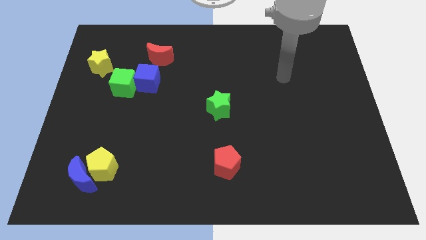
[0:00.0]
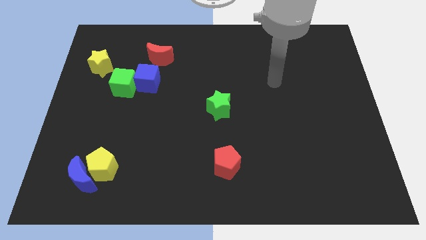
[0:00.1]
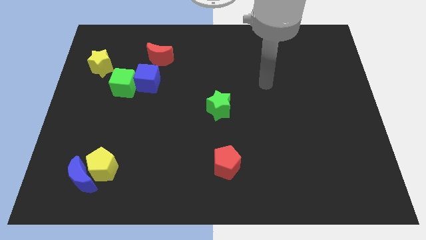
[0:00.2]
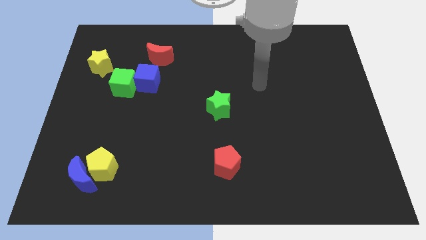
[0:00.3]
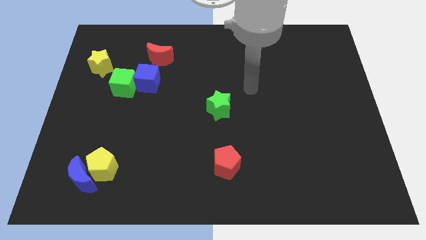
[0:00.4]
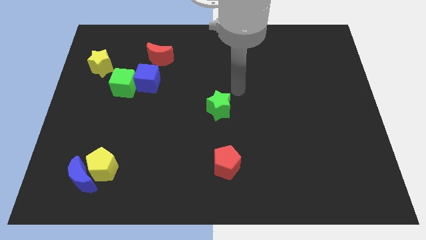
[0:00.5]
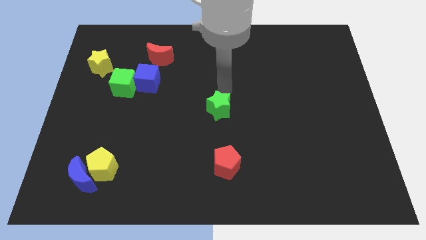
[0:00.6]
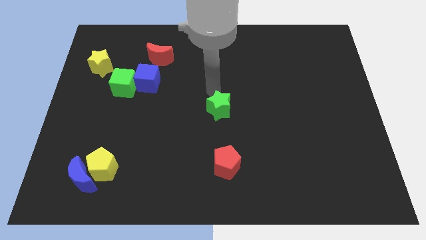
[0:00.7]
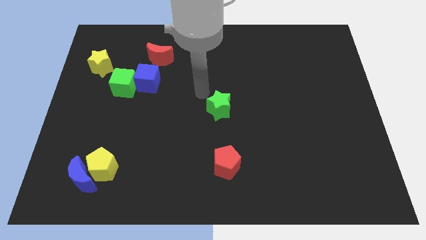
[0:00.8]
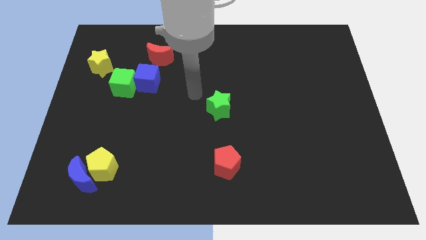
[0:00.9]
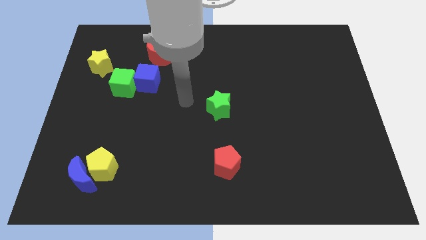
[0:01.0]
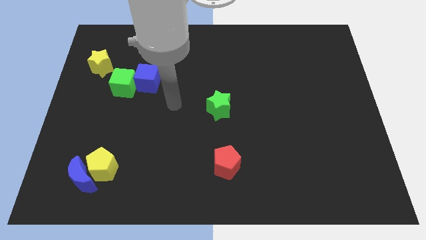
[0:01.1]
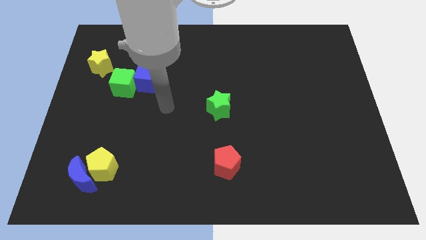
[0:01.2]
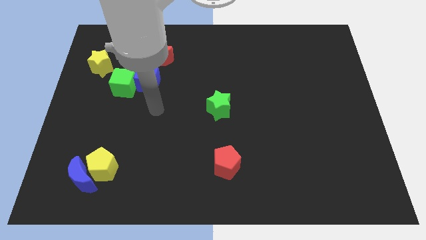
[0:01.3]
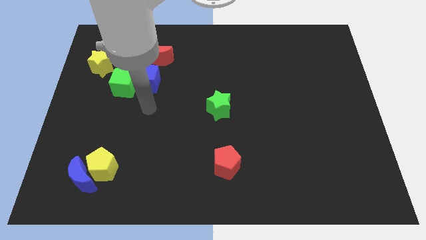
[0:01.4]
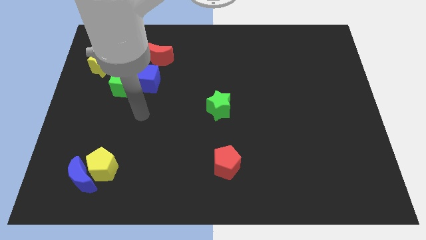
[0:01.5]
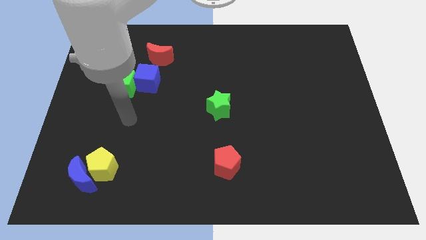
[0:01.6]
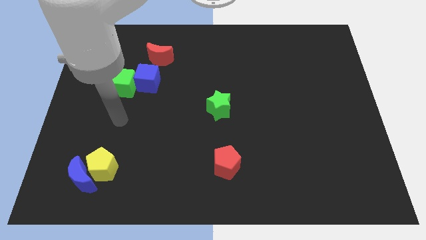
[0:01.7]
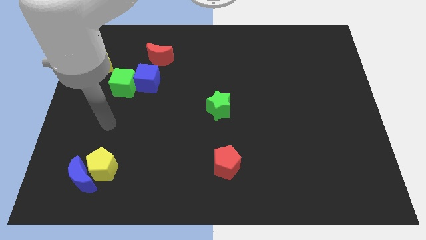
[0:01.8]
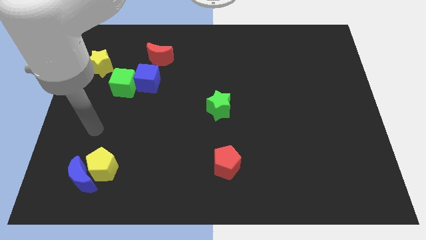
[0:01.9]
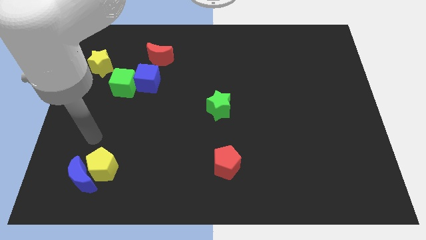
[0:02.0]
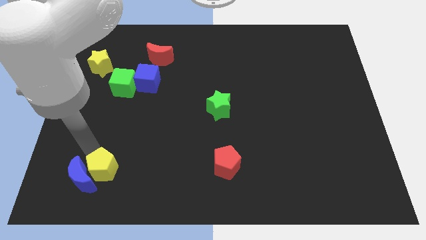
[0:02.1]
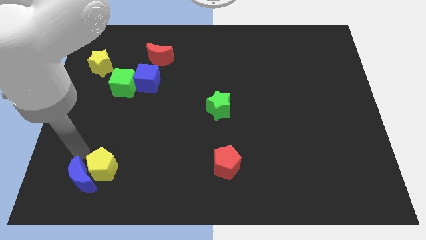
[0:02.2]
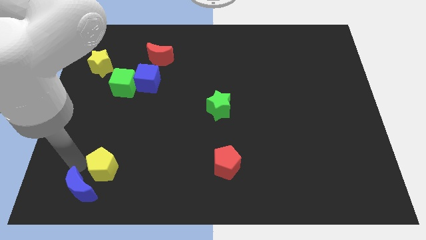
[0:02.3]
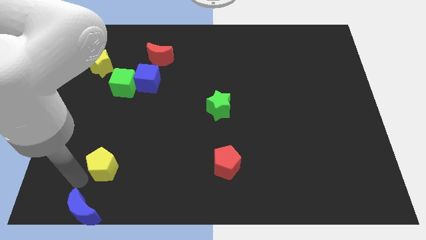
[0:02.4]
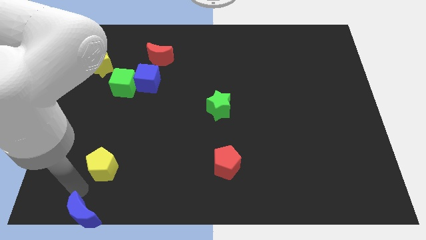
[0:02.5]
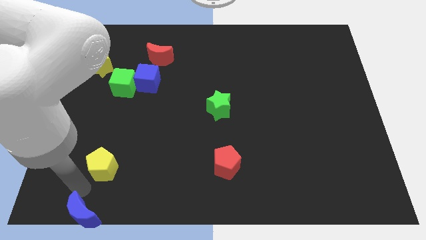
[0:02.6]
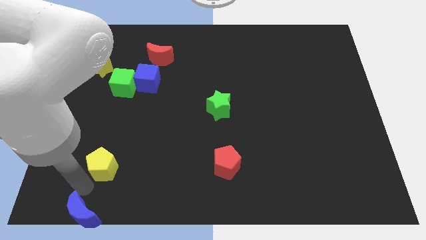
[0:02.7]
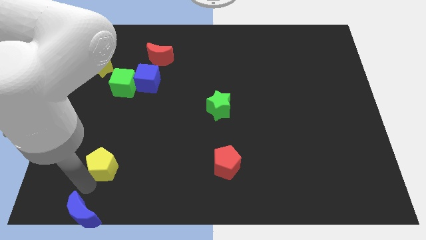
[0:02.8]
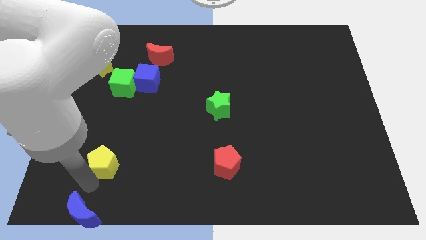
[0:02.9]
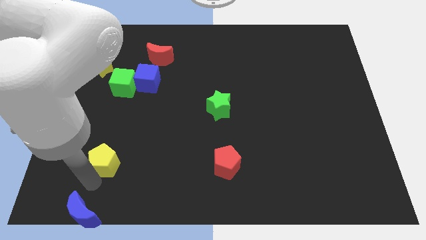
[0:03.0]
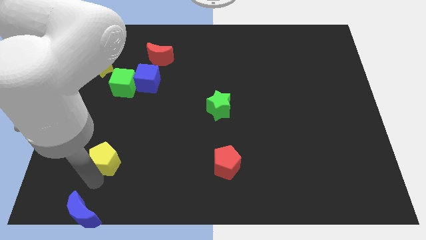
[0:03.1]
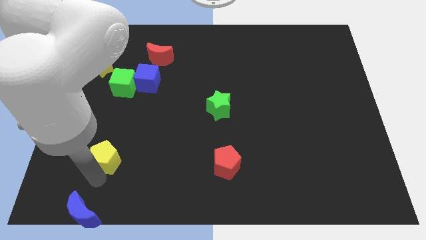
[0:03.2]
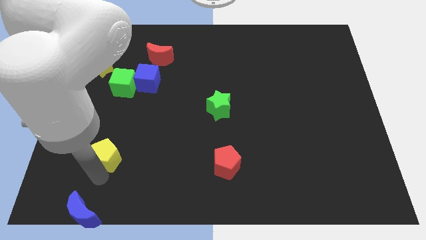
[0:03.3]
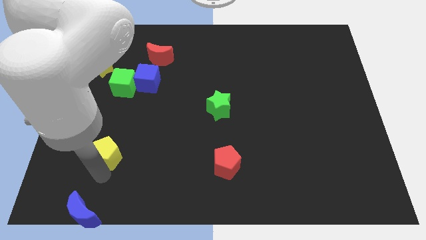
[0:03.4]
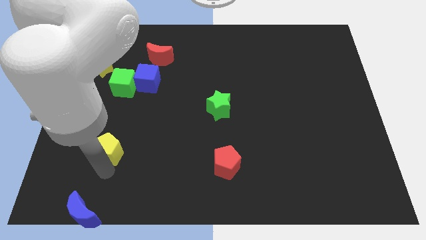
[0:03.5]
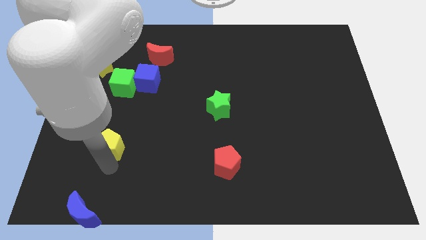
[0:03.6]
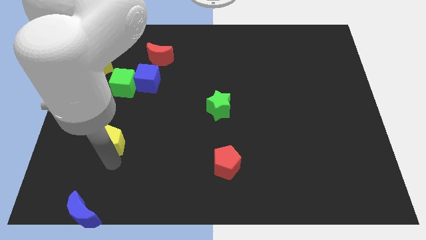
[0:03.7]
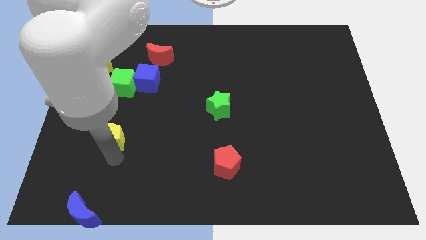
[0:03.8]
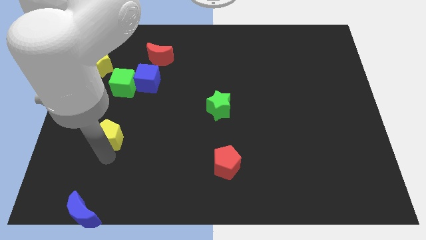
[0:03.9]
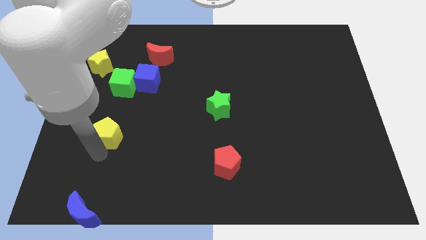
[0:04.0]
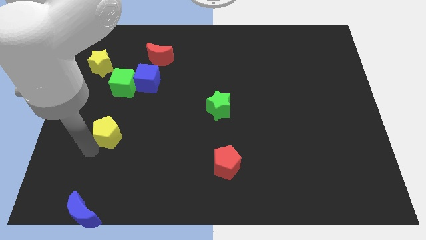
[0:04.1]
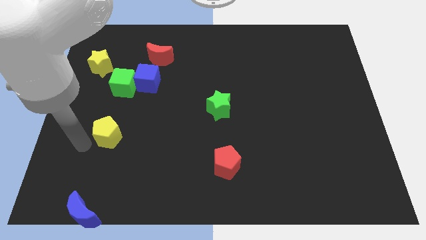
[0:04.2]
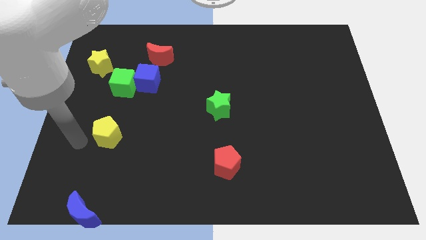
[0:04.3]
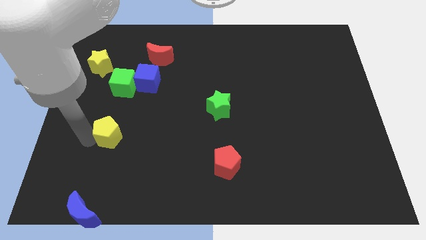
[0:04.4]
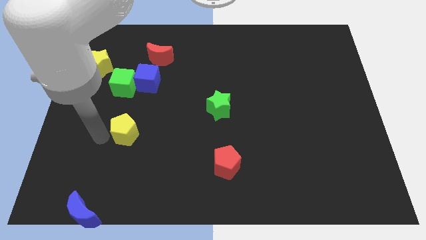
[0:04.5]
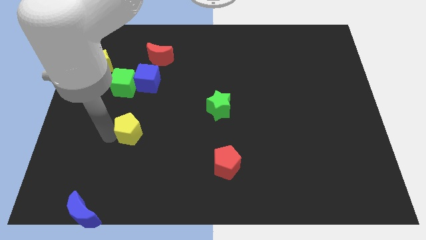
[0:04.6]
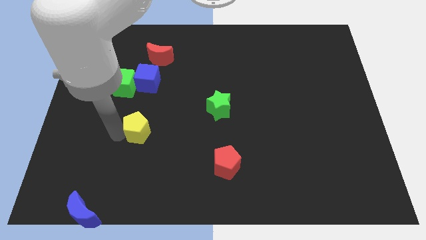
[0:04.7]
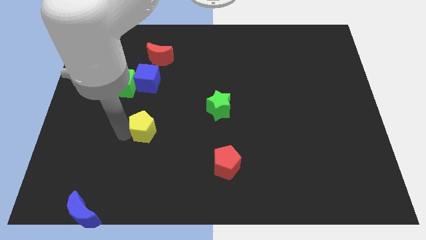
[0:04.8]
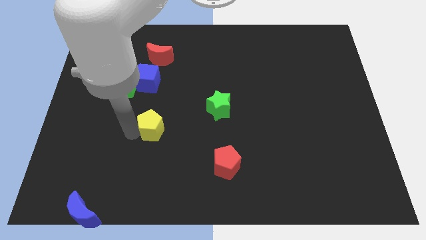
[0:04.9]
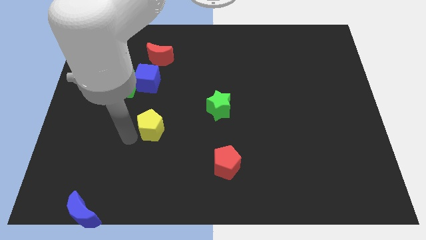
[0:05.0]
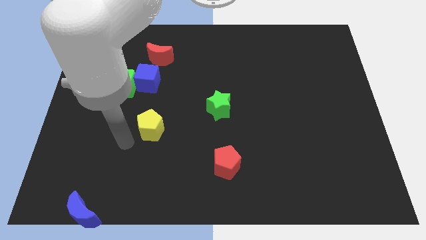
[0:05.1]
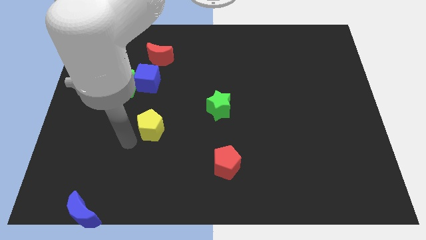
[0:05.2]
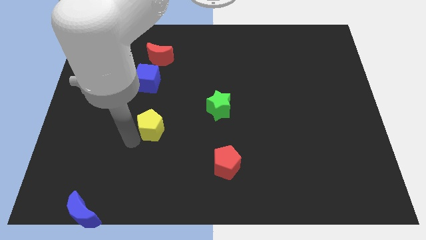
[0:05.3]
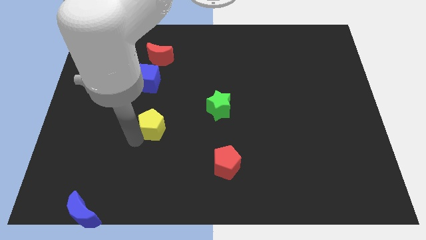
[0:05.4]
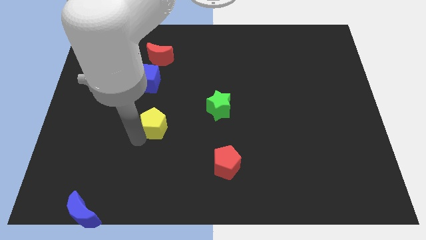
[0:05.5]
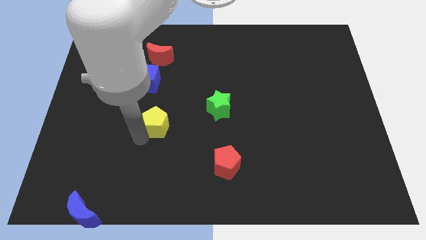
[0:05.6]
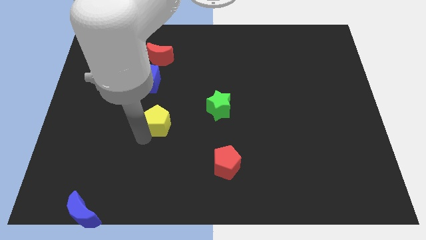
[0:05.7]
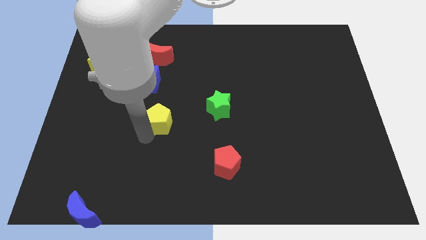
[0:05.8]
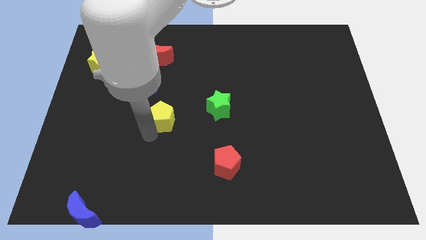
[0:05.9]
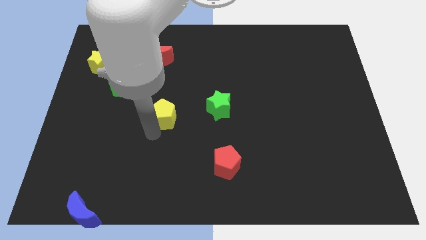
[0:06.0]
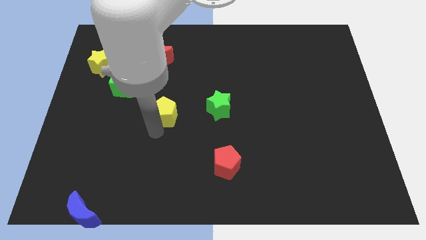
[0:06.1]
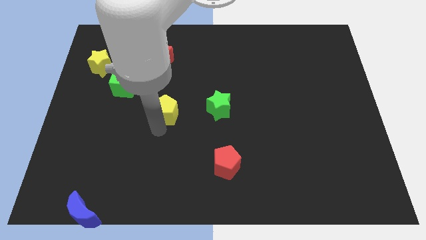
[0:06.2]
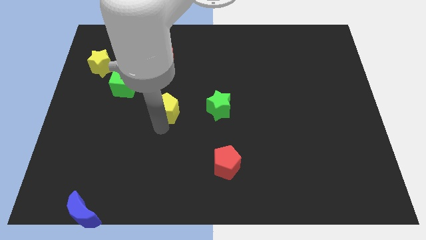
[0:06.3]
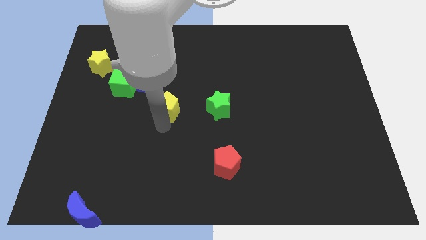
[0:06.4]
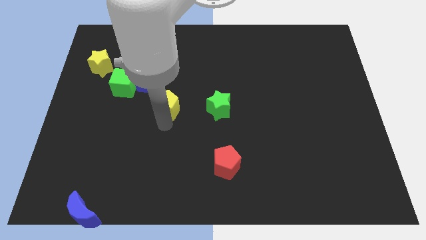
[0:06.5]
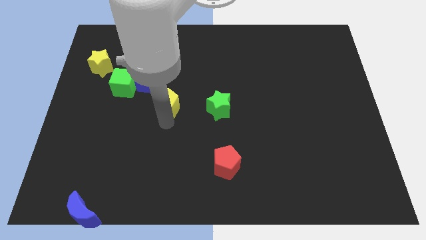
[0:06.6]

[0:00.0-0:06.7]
slide the yellow pentagon diagonally up and right

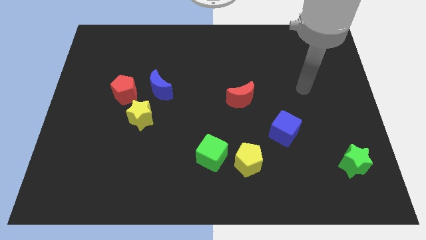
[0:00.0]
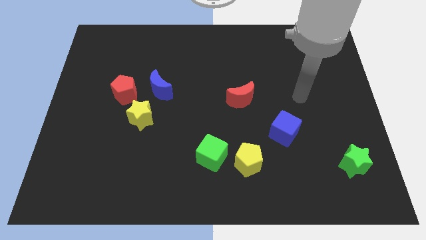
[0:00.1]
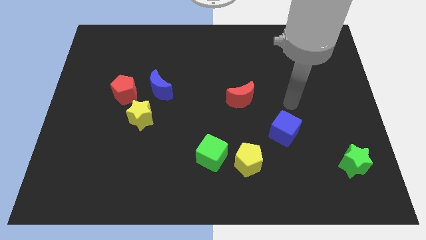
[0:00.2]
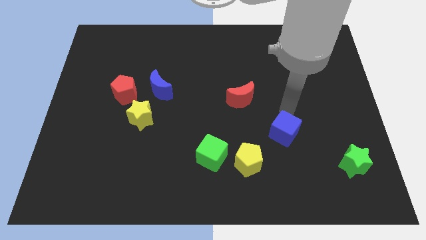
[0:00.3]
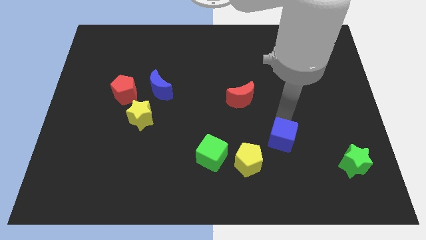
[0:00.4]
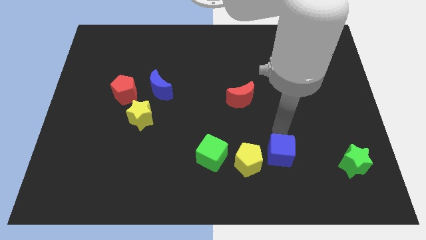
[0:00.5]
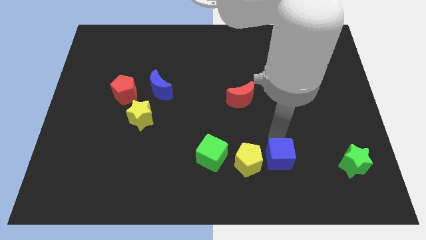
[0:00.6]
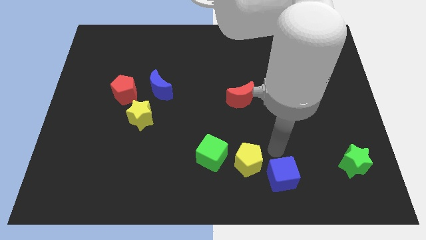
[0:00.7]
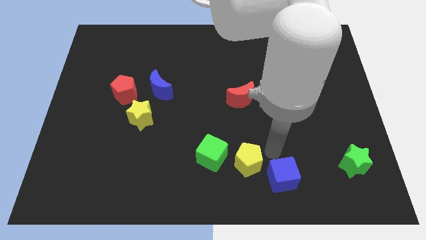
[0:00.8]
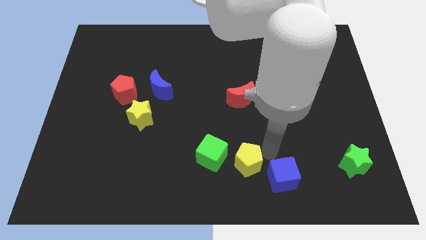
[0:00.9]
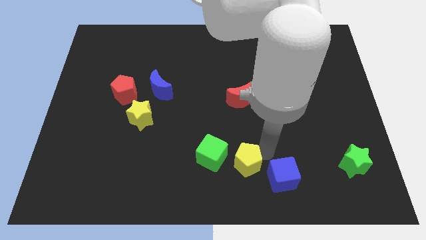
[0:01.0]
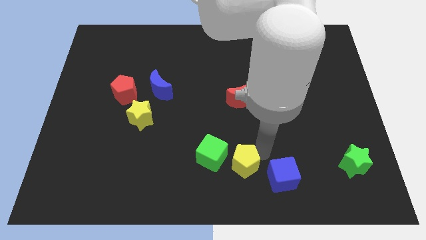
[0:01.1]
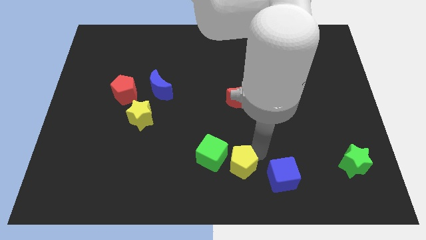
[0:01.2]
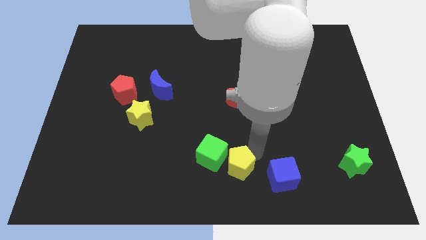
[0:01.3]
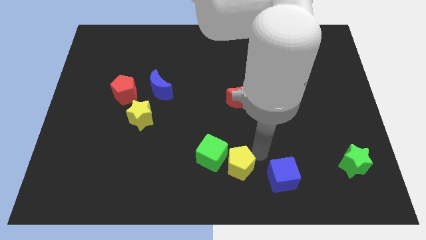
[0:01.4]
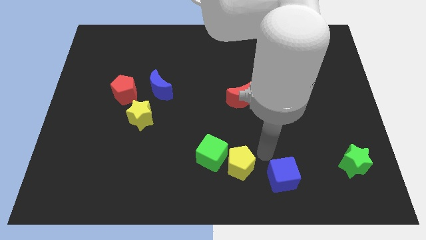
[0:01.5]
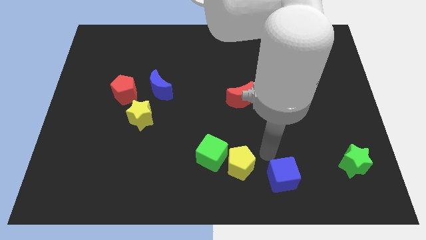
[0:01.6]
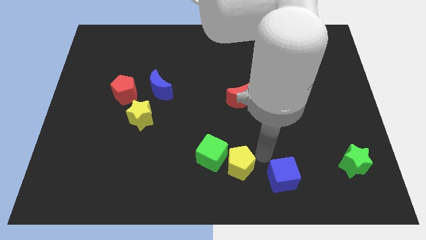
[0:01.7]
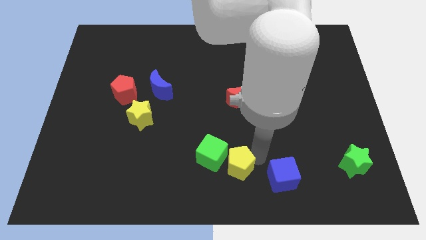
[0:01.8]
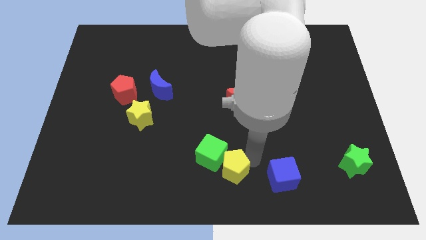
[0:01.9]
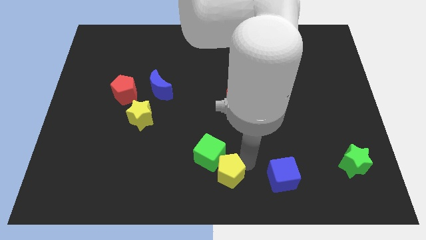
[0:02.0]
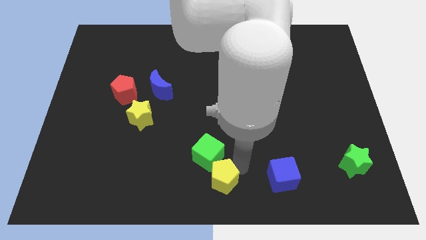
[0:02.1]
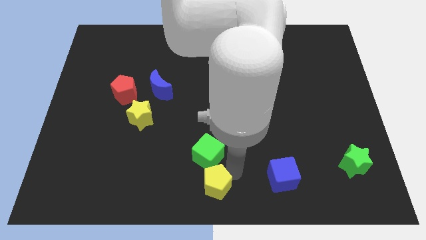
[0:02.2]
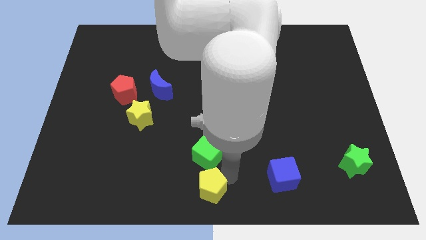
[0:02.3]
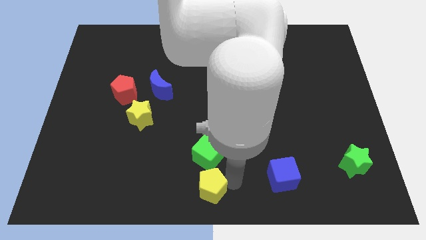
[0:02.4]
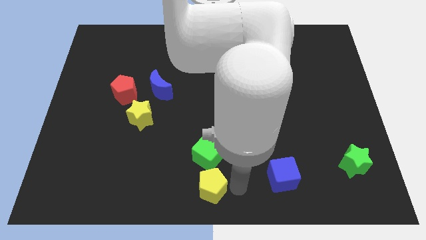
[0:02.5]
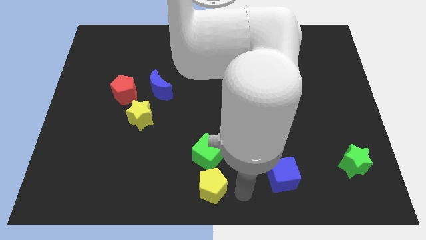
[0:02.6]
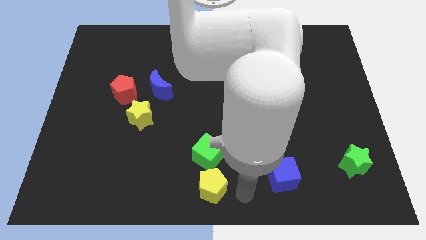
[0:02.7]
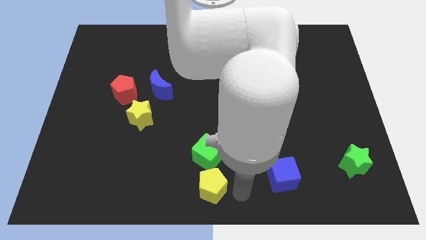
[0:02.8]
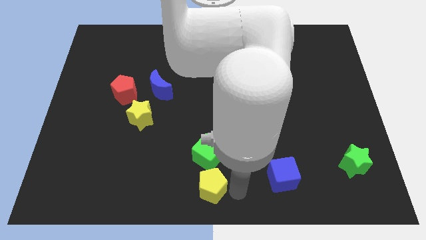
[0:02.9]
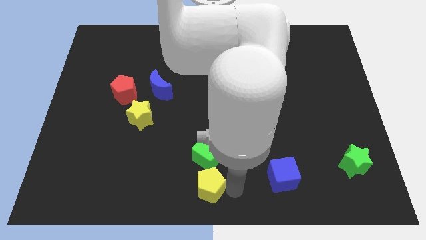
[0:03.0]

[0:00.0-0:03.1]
move the yellow pentagon somewhat left
